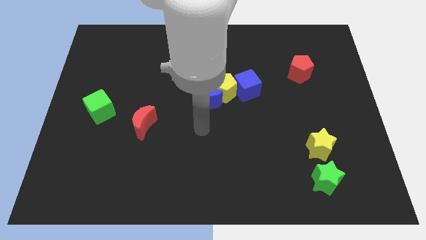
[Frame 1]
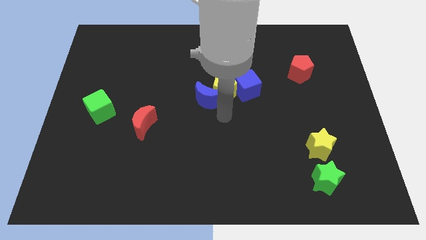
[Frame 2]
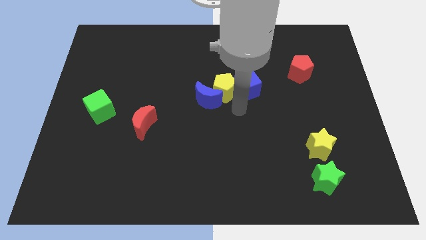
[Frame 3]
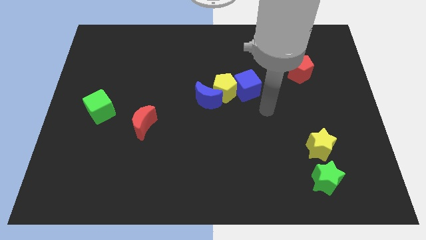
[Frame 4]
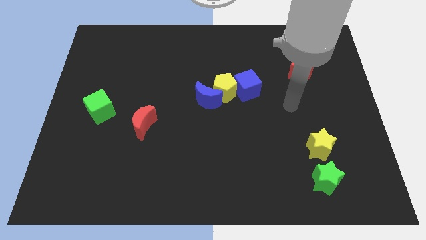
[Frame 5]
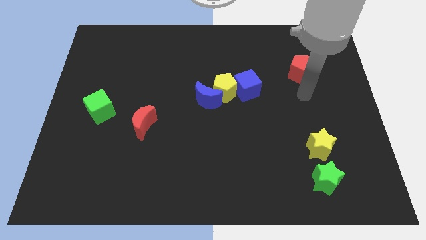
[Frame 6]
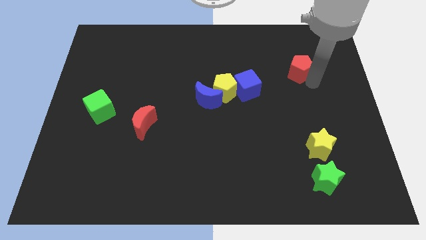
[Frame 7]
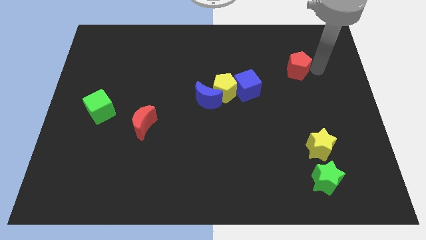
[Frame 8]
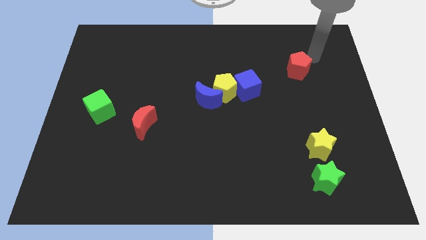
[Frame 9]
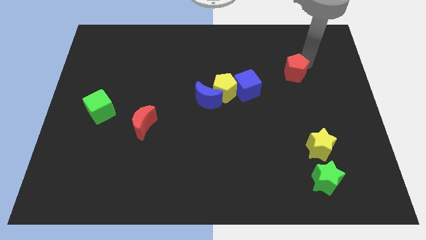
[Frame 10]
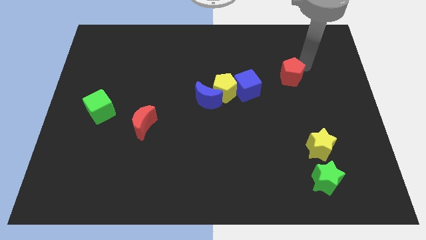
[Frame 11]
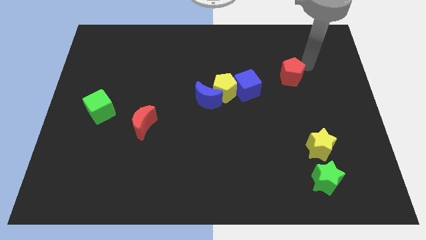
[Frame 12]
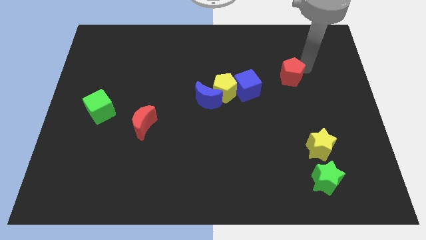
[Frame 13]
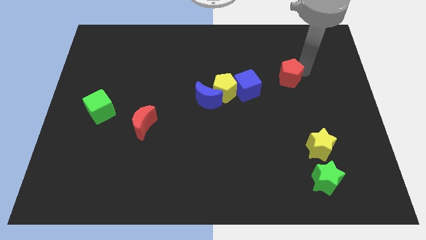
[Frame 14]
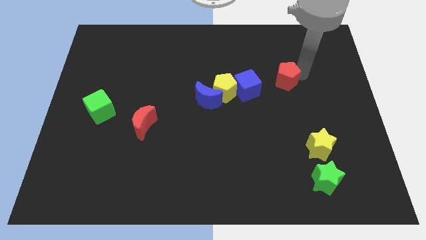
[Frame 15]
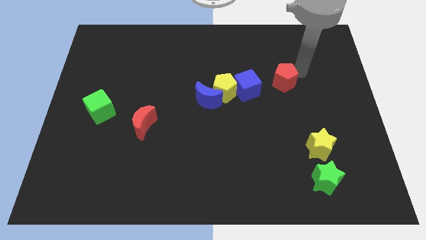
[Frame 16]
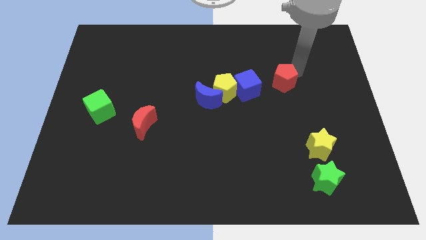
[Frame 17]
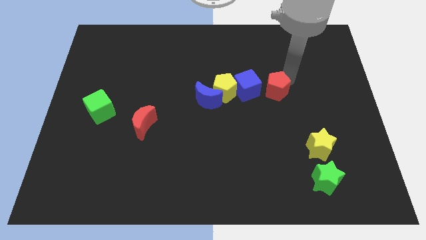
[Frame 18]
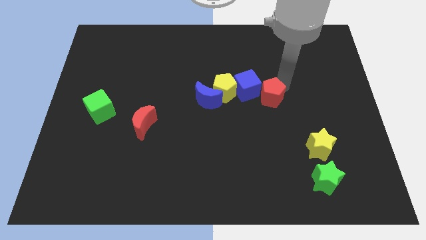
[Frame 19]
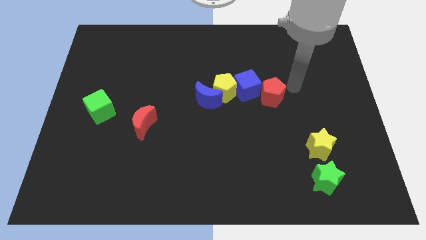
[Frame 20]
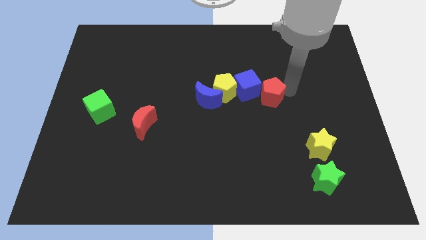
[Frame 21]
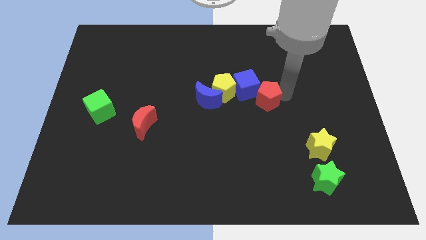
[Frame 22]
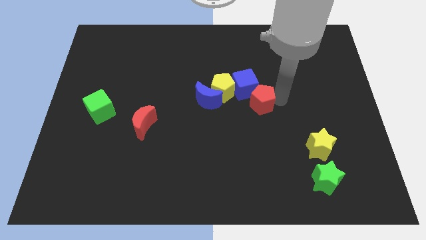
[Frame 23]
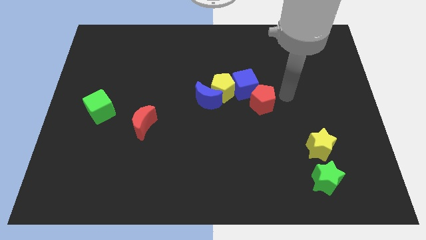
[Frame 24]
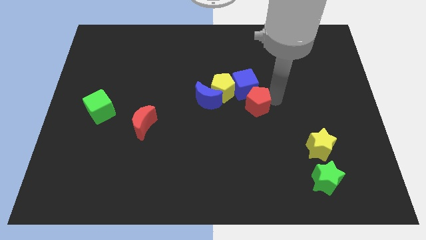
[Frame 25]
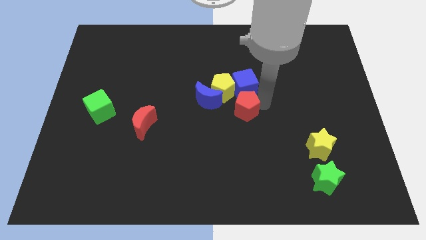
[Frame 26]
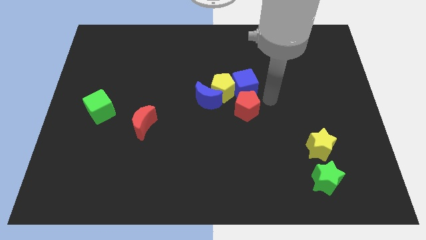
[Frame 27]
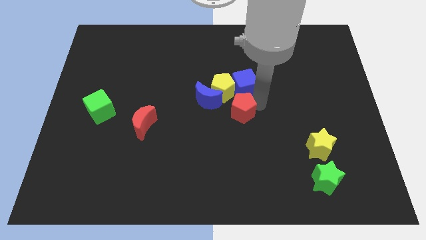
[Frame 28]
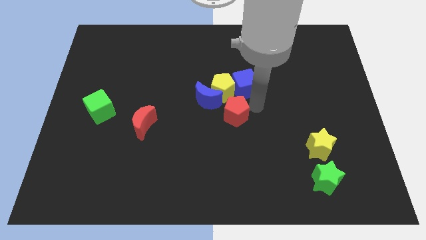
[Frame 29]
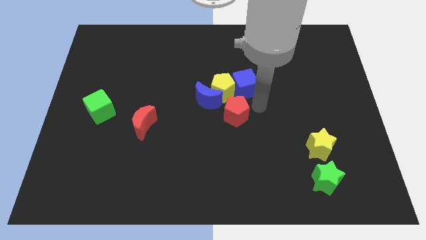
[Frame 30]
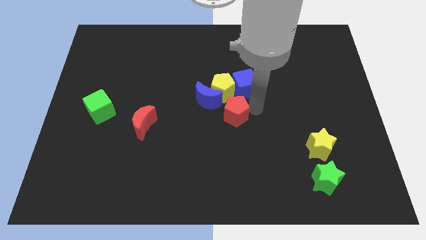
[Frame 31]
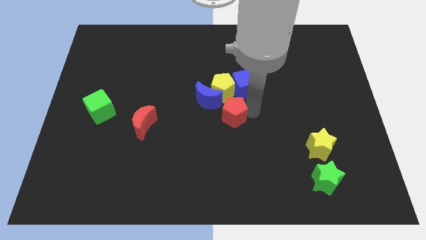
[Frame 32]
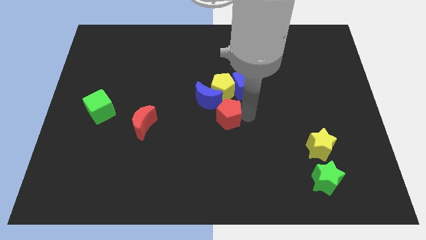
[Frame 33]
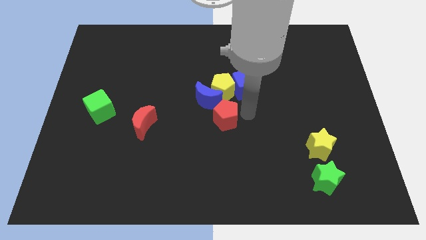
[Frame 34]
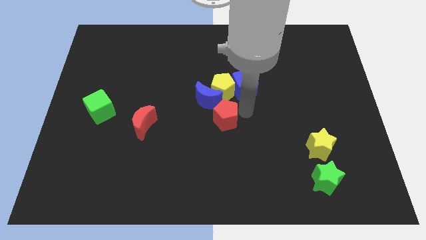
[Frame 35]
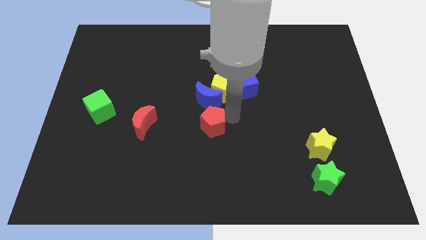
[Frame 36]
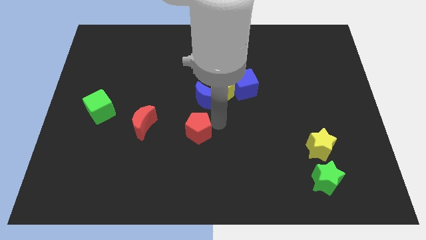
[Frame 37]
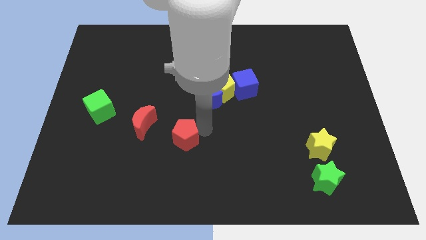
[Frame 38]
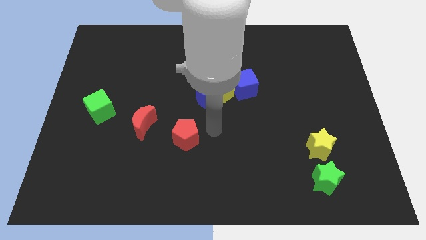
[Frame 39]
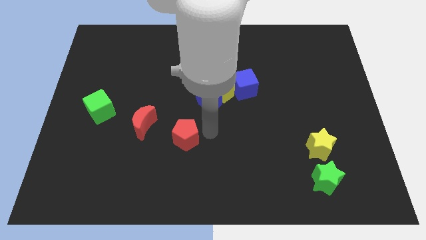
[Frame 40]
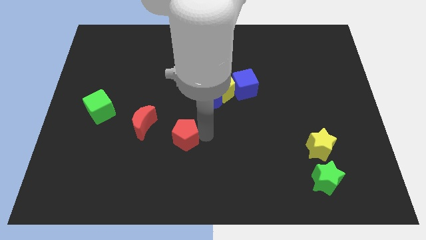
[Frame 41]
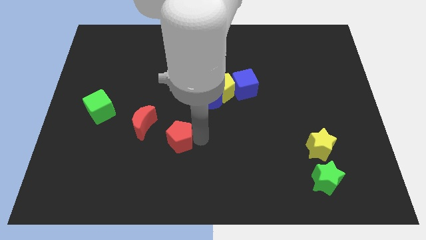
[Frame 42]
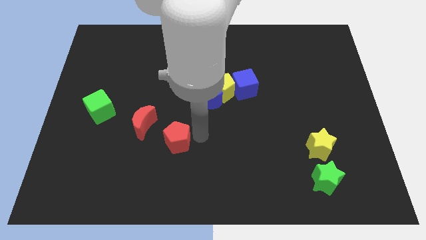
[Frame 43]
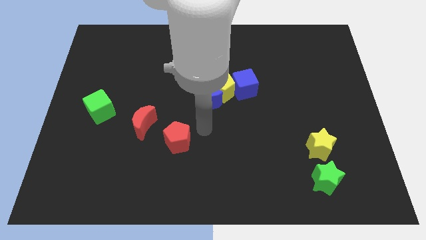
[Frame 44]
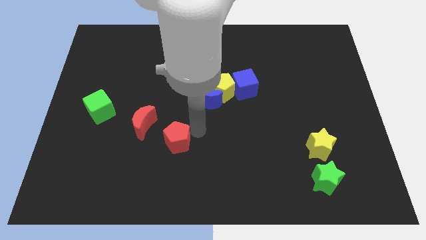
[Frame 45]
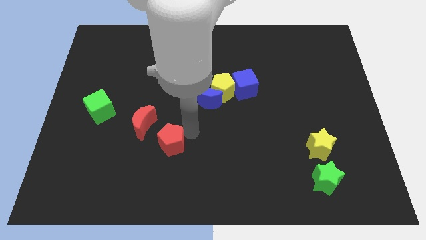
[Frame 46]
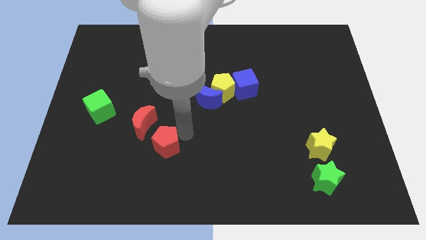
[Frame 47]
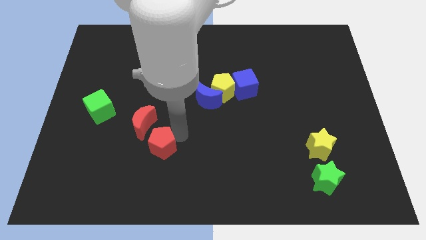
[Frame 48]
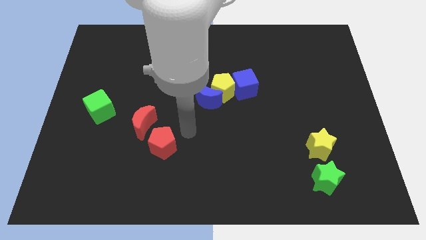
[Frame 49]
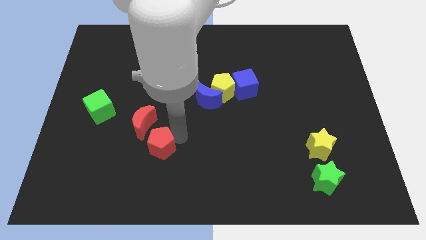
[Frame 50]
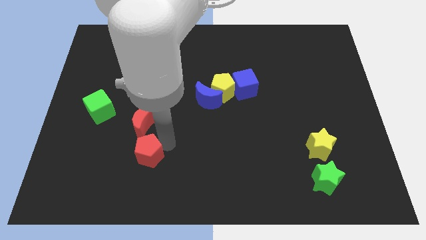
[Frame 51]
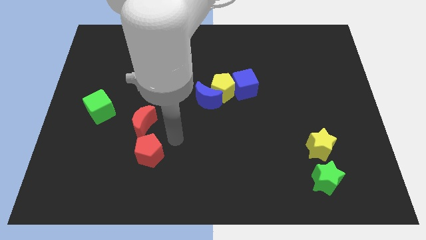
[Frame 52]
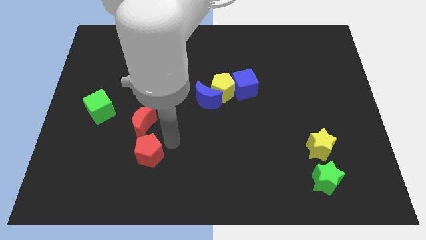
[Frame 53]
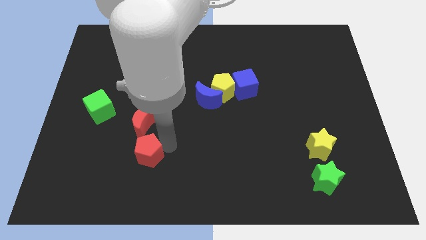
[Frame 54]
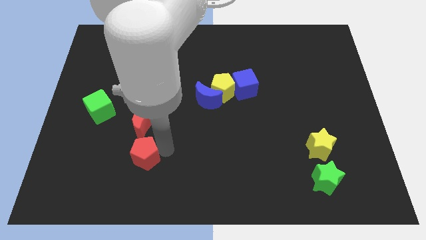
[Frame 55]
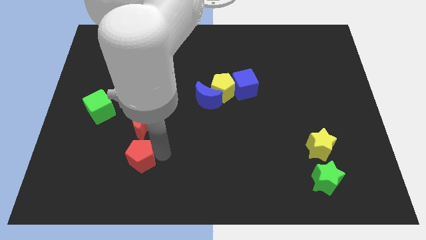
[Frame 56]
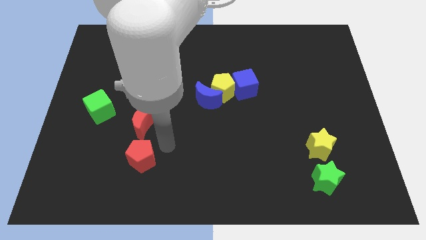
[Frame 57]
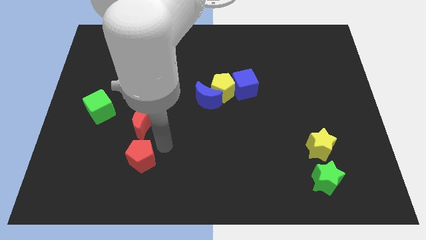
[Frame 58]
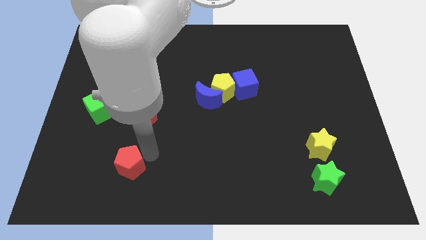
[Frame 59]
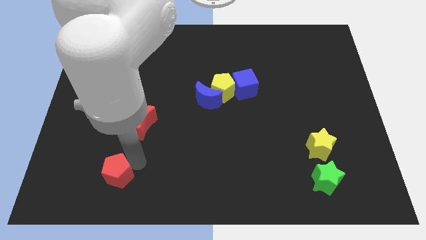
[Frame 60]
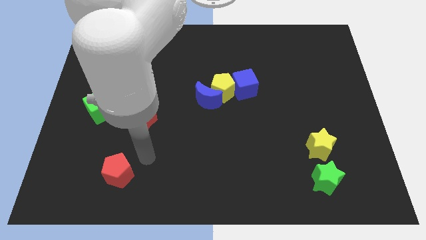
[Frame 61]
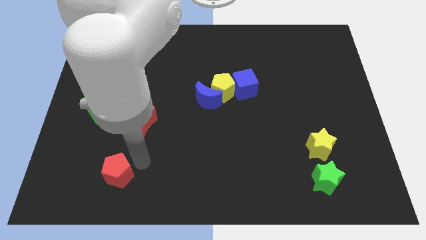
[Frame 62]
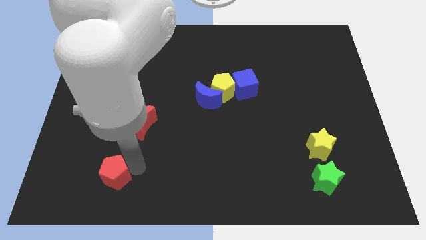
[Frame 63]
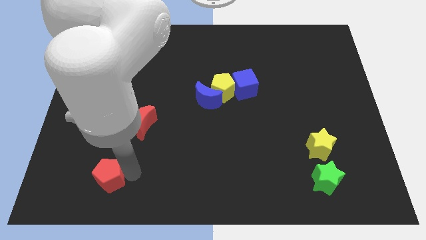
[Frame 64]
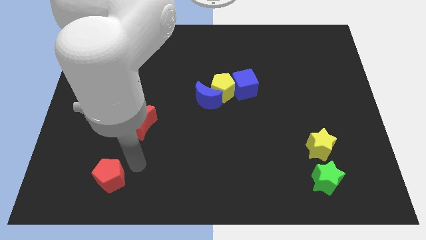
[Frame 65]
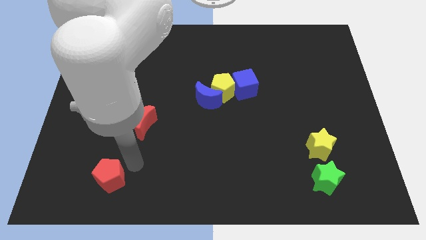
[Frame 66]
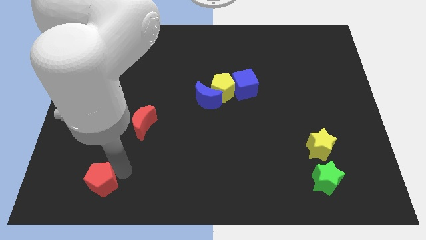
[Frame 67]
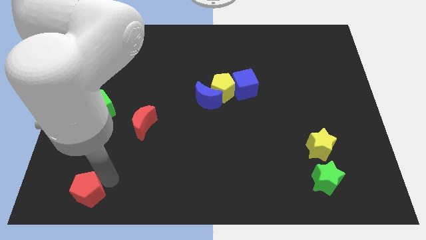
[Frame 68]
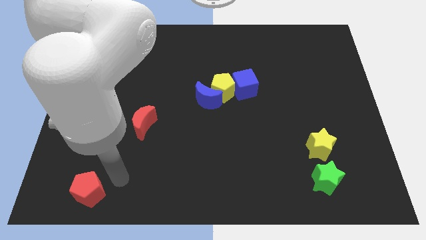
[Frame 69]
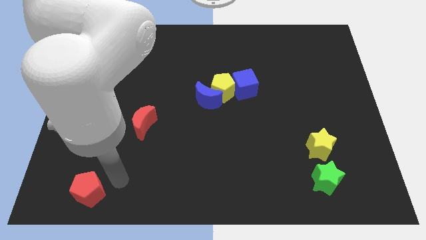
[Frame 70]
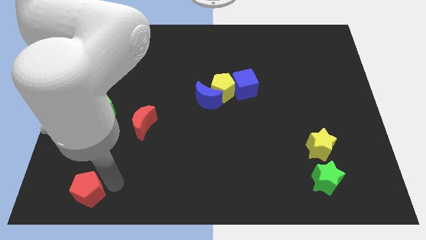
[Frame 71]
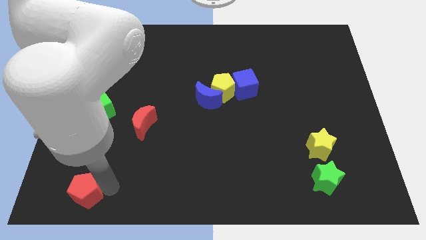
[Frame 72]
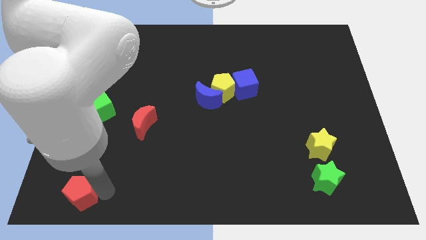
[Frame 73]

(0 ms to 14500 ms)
move the red pentagon to the bottom left corner
